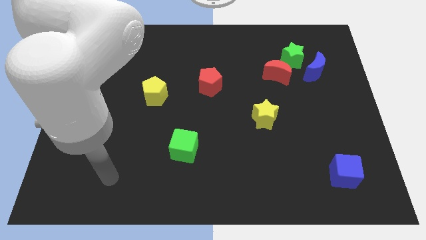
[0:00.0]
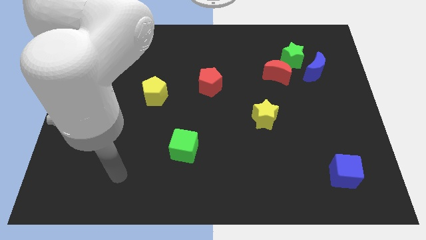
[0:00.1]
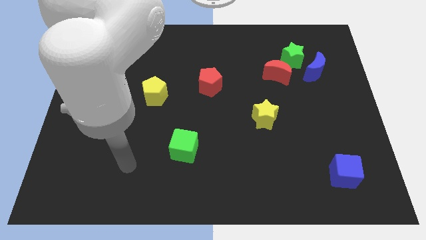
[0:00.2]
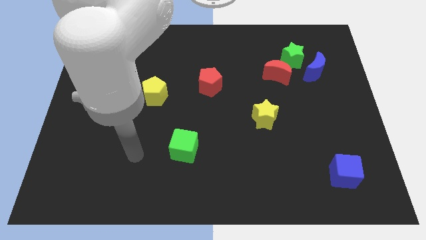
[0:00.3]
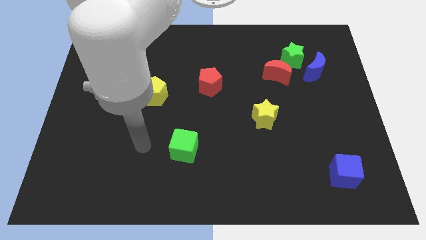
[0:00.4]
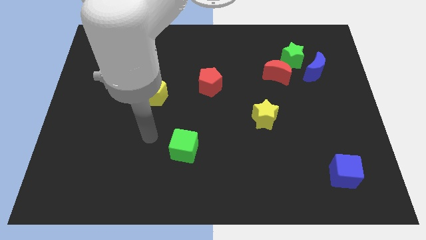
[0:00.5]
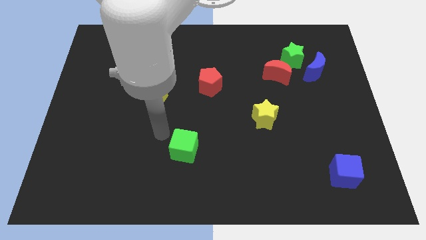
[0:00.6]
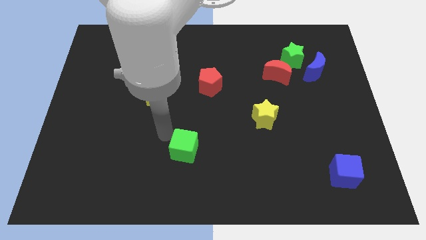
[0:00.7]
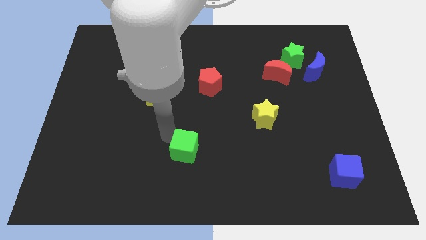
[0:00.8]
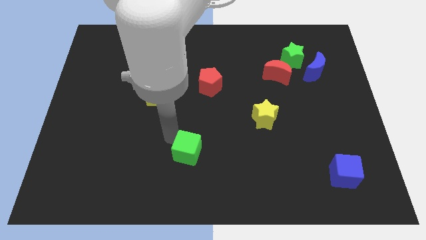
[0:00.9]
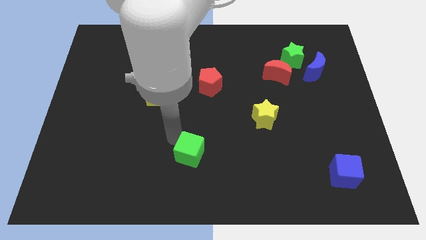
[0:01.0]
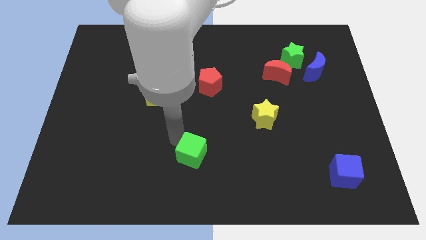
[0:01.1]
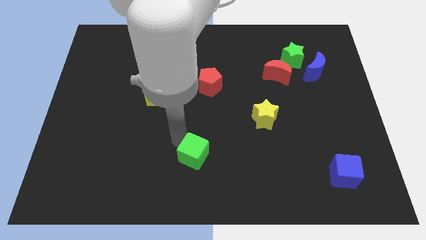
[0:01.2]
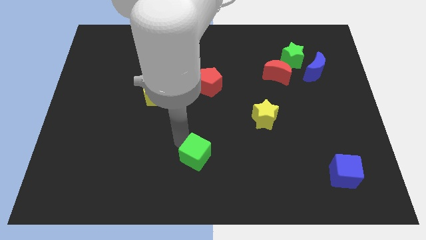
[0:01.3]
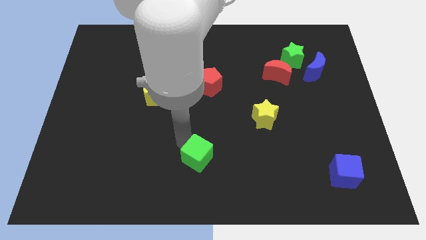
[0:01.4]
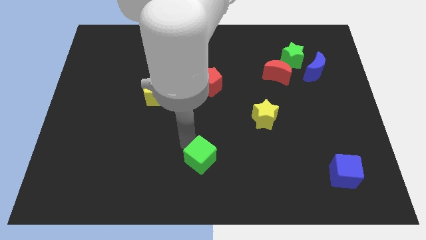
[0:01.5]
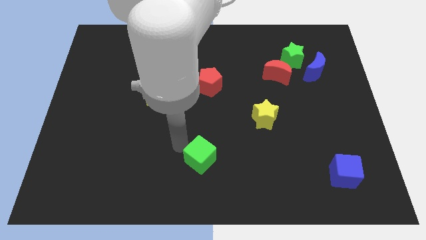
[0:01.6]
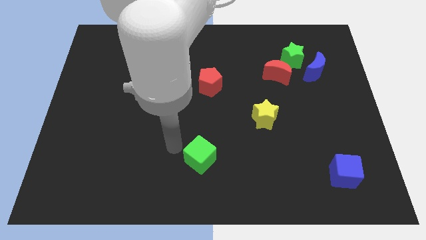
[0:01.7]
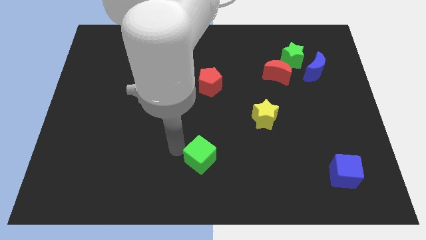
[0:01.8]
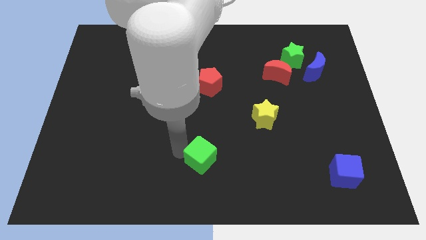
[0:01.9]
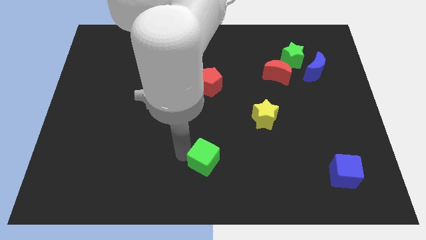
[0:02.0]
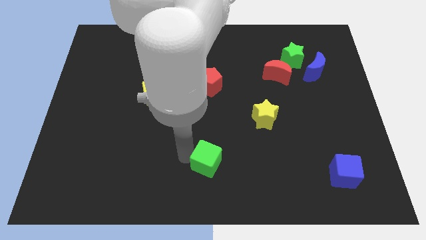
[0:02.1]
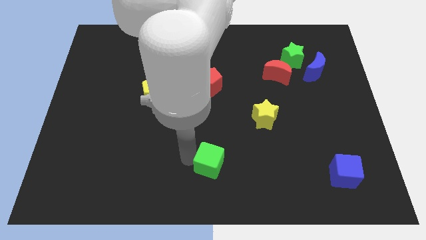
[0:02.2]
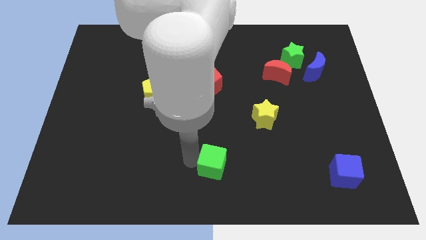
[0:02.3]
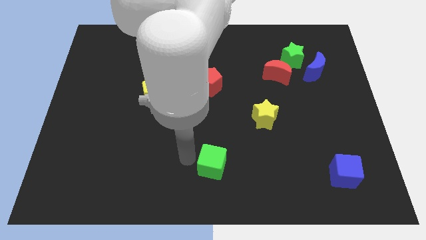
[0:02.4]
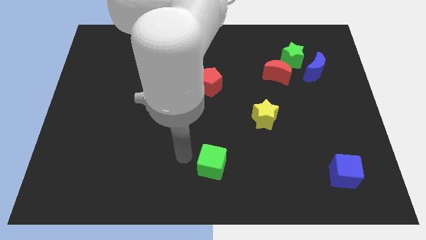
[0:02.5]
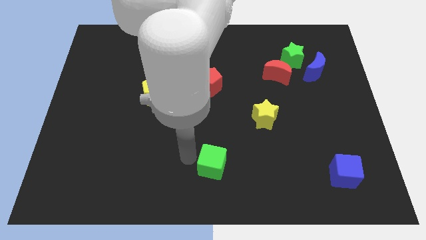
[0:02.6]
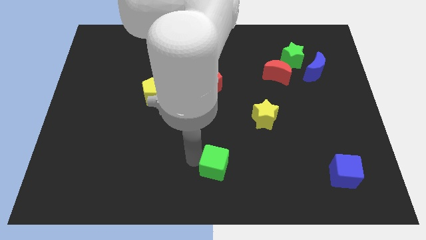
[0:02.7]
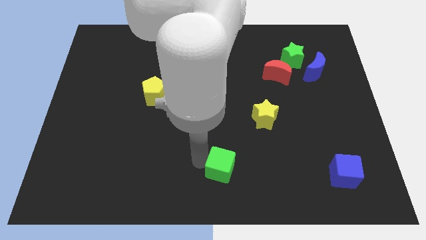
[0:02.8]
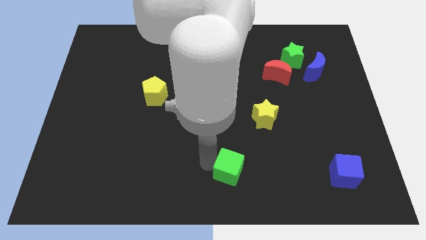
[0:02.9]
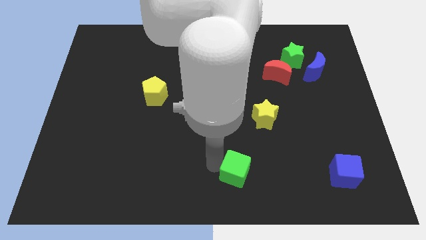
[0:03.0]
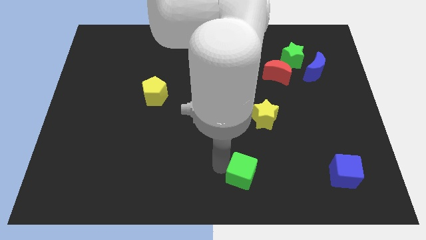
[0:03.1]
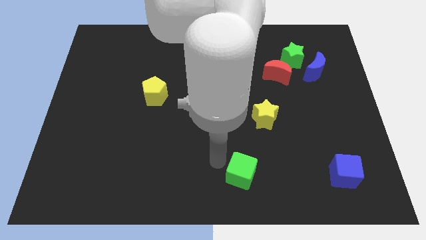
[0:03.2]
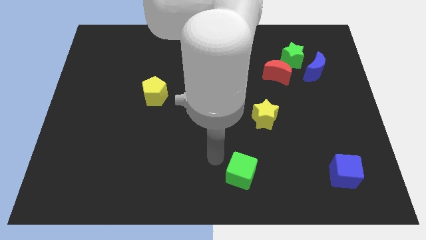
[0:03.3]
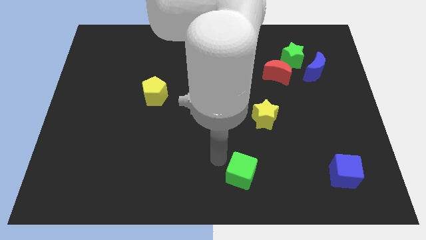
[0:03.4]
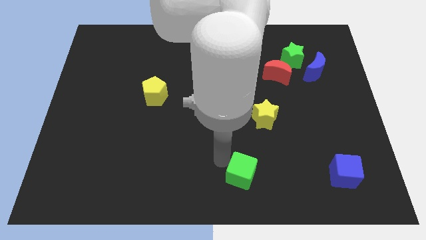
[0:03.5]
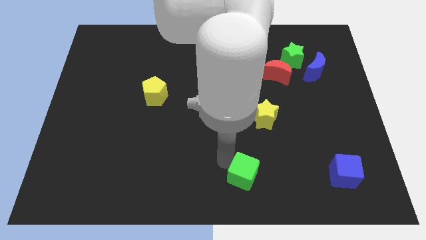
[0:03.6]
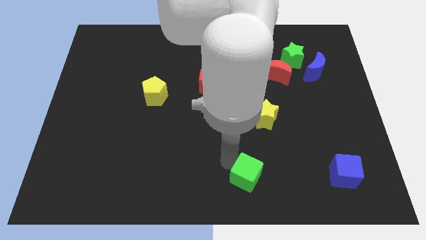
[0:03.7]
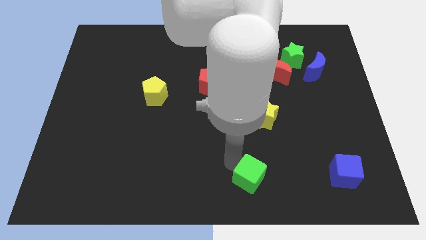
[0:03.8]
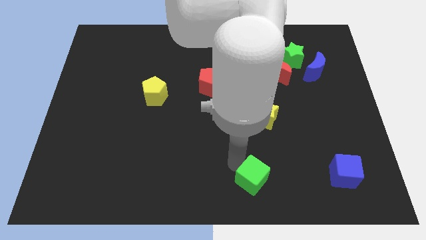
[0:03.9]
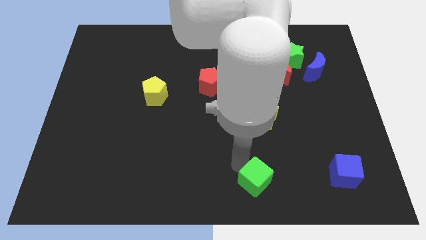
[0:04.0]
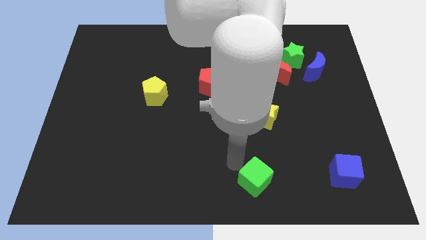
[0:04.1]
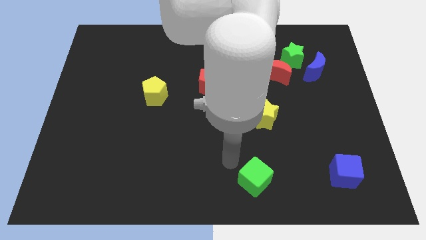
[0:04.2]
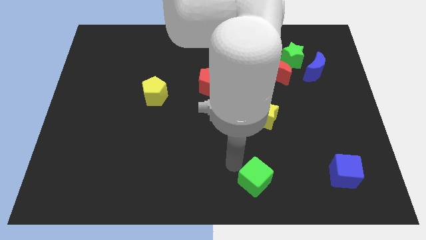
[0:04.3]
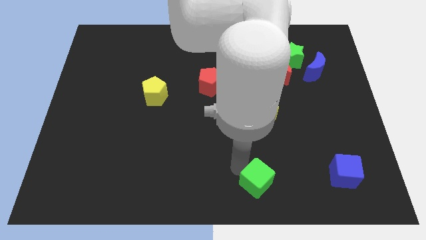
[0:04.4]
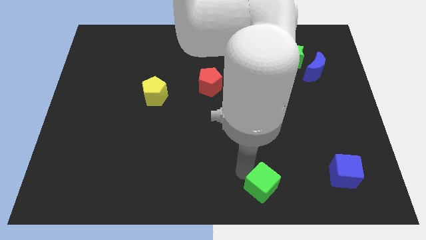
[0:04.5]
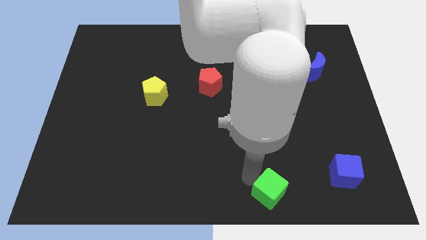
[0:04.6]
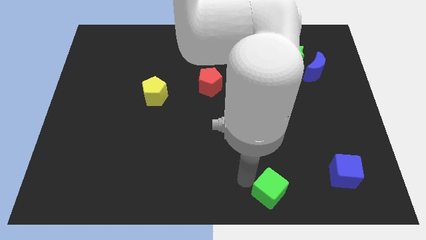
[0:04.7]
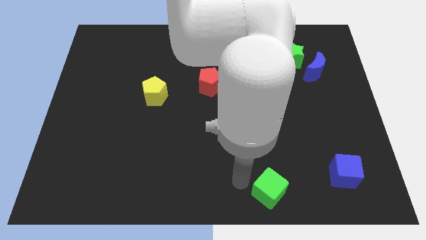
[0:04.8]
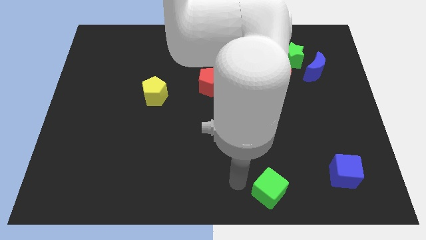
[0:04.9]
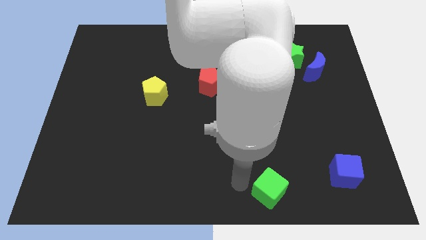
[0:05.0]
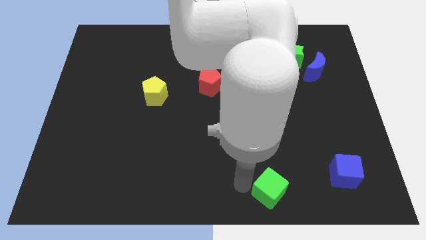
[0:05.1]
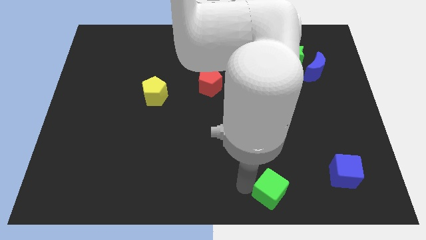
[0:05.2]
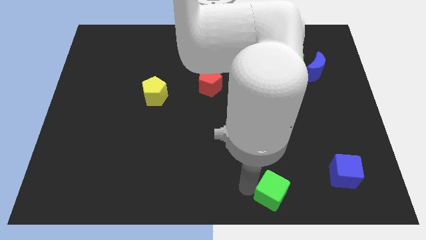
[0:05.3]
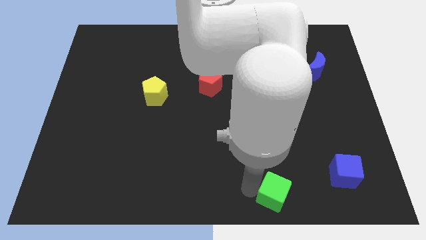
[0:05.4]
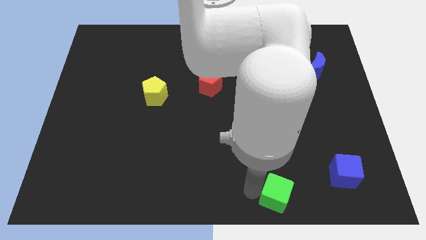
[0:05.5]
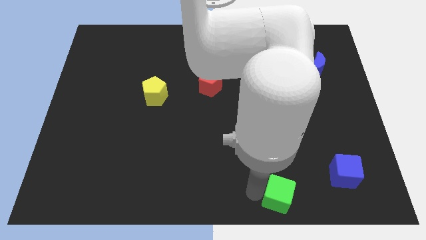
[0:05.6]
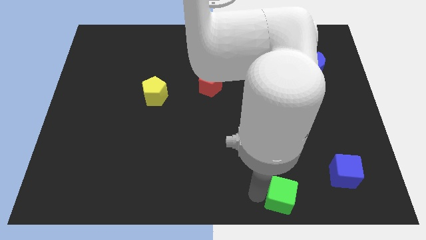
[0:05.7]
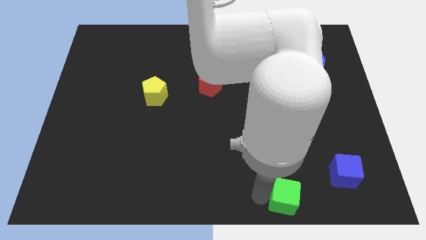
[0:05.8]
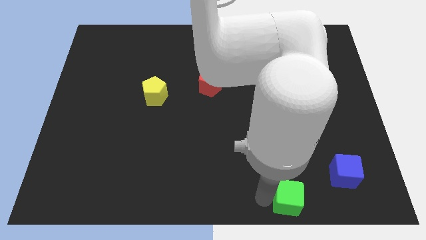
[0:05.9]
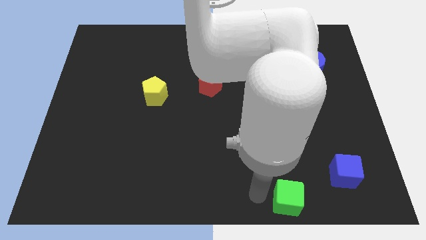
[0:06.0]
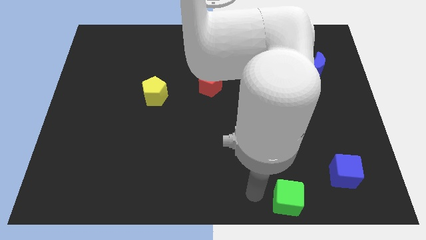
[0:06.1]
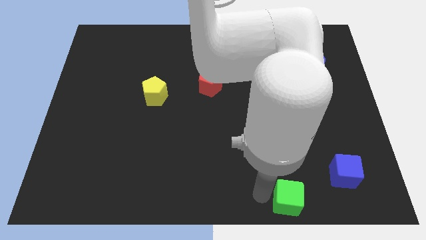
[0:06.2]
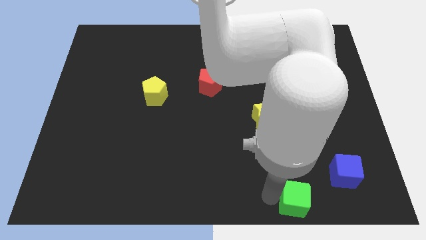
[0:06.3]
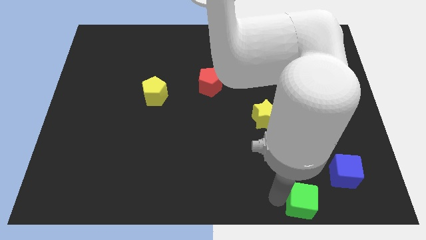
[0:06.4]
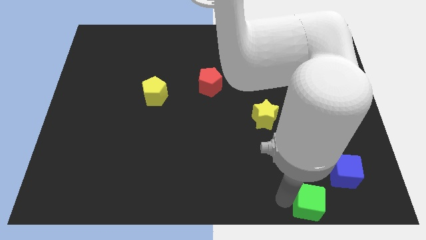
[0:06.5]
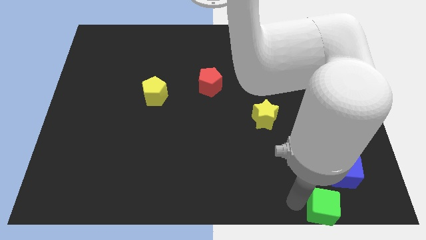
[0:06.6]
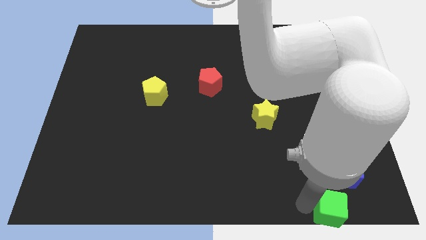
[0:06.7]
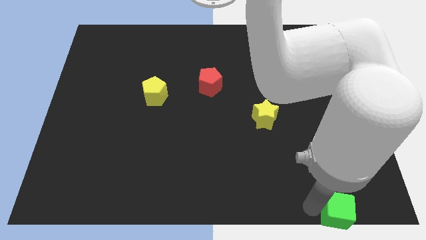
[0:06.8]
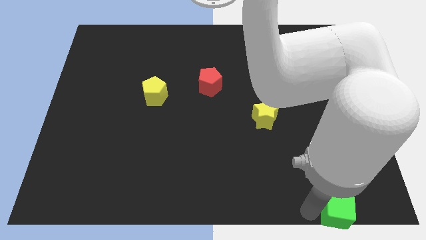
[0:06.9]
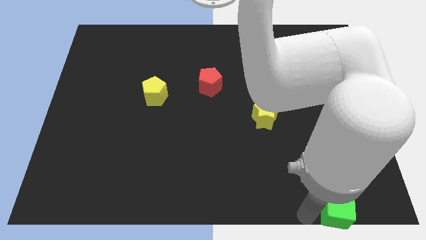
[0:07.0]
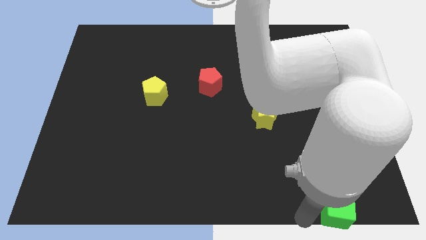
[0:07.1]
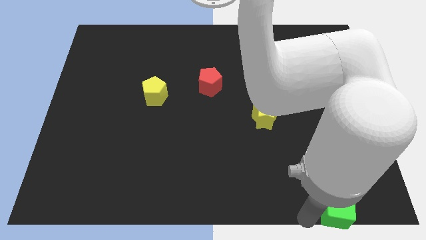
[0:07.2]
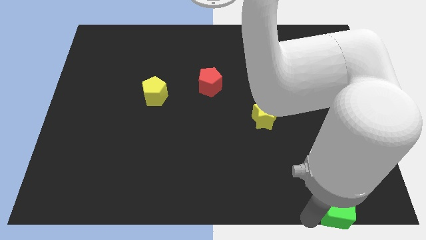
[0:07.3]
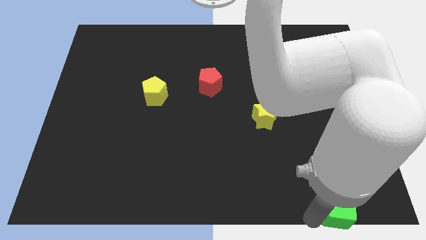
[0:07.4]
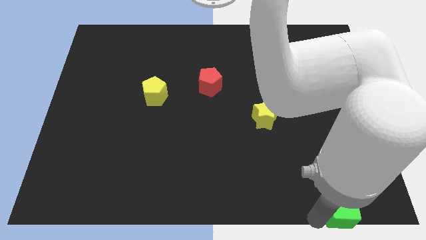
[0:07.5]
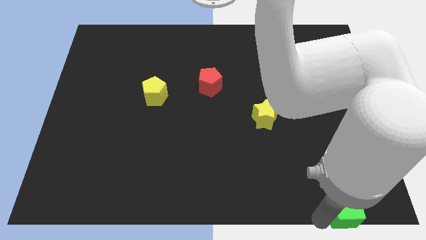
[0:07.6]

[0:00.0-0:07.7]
put the green cube to the bottom right of the board
